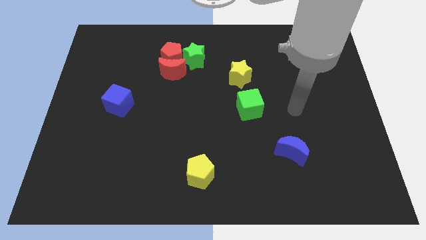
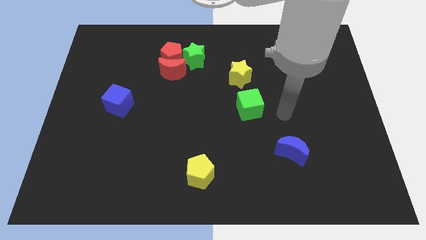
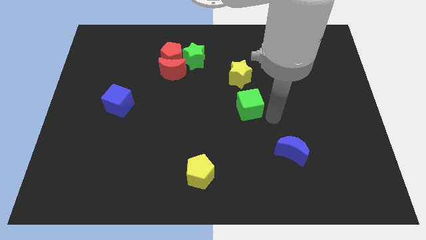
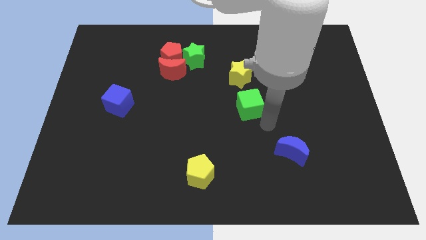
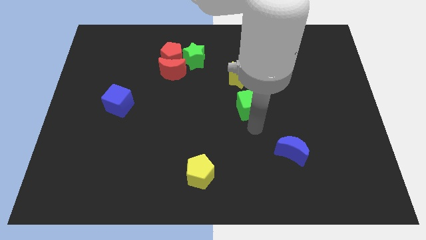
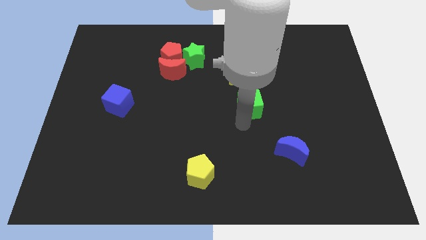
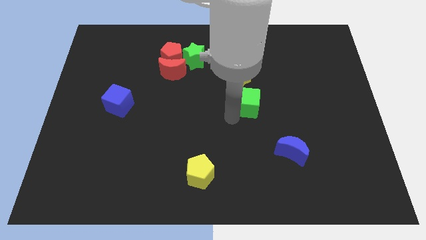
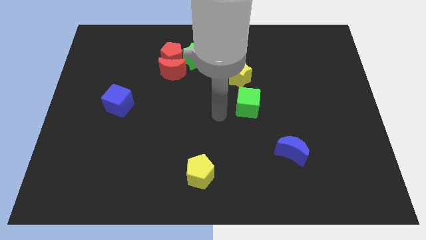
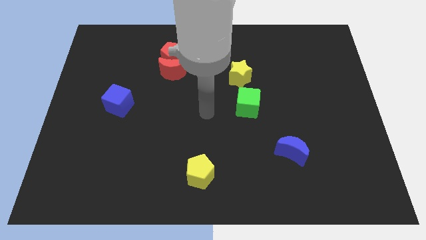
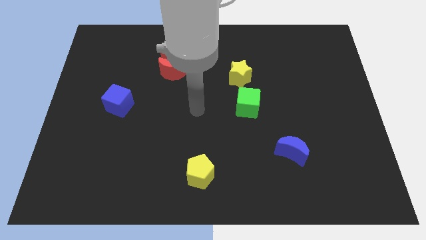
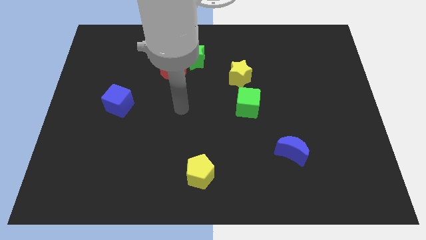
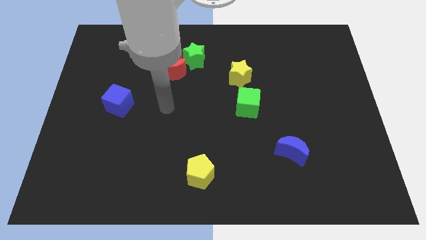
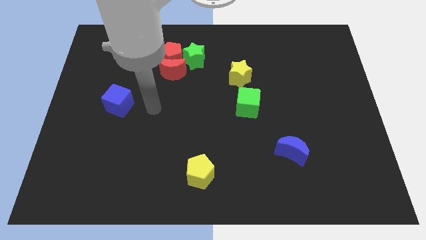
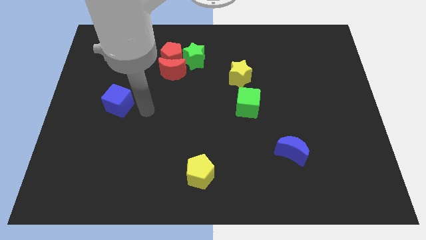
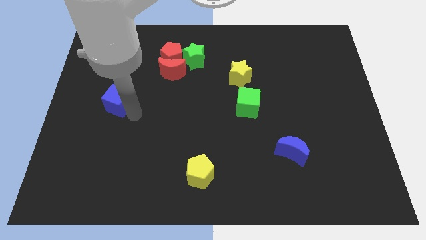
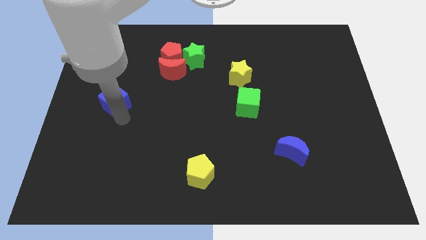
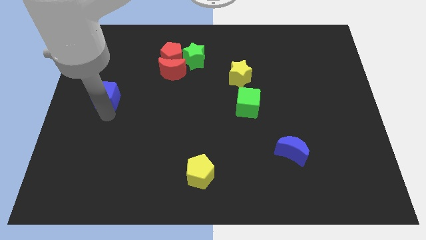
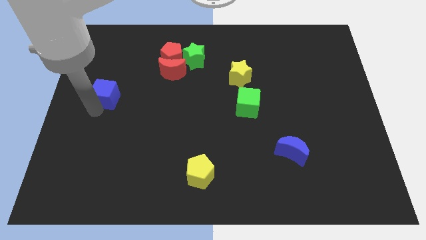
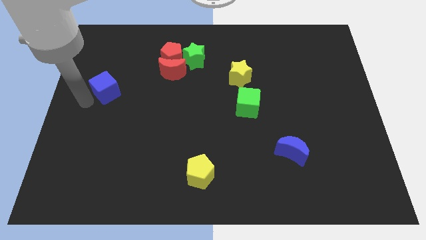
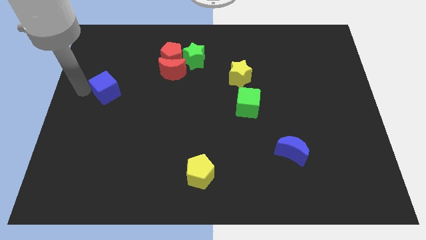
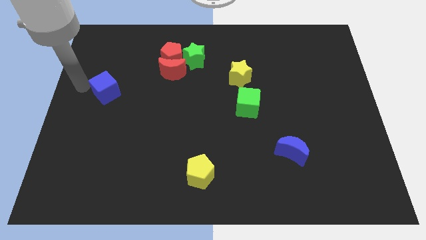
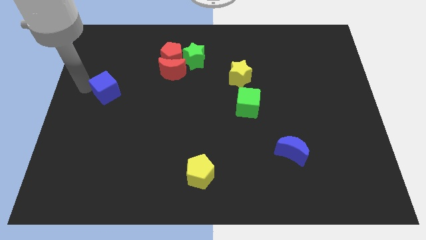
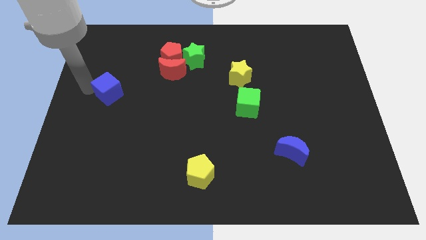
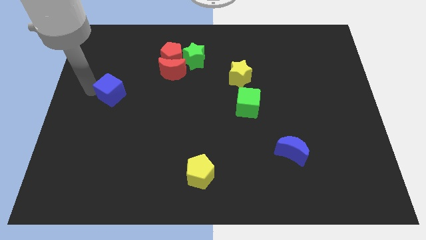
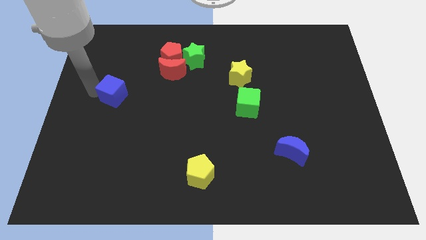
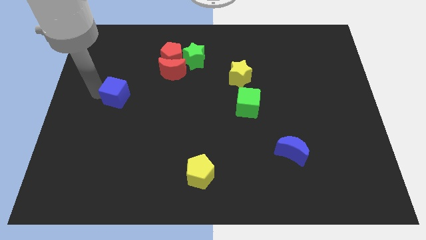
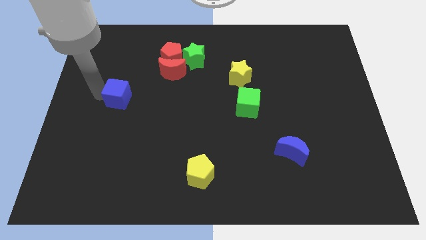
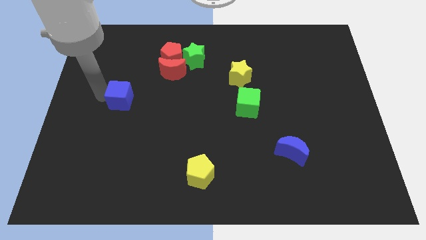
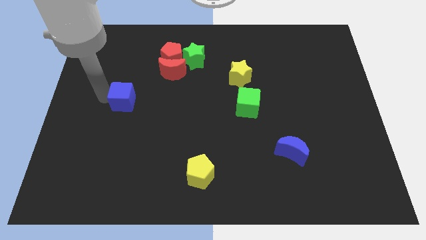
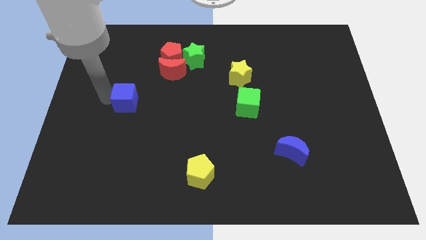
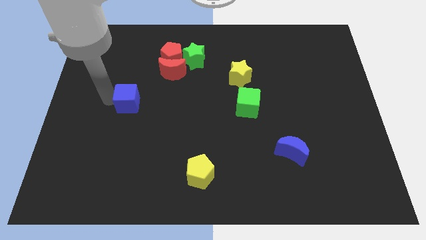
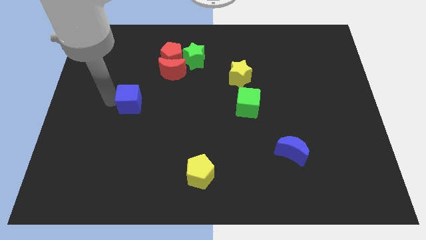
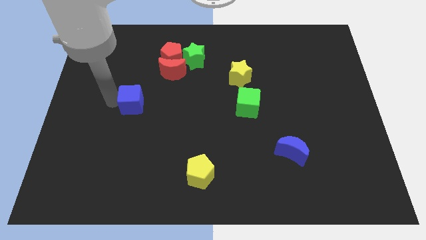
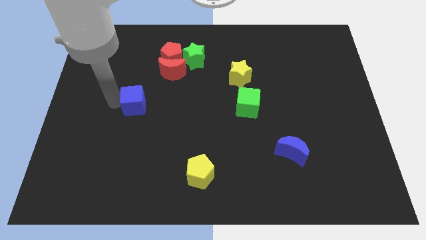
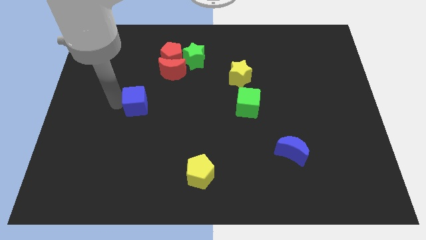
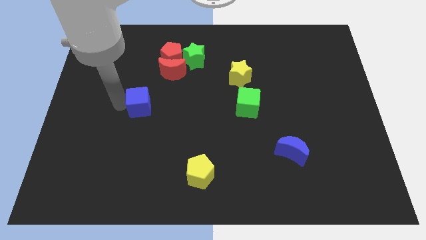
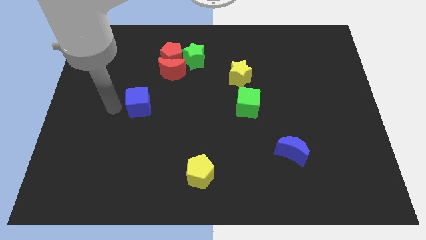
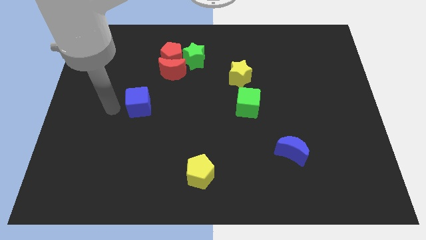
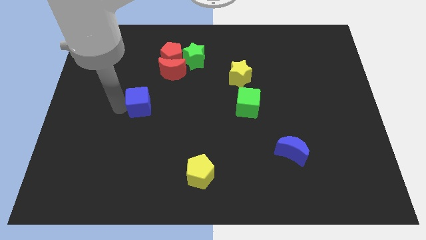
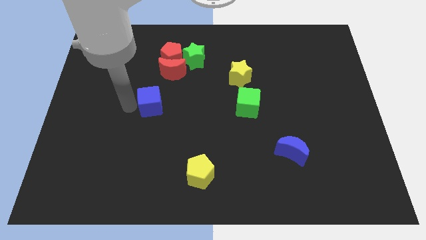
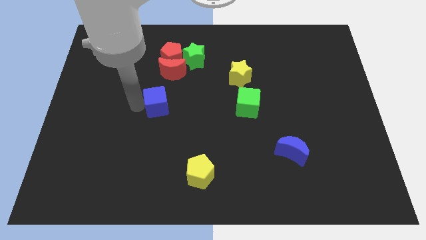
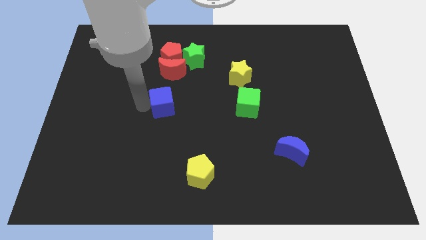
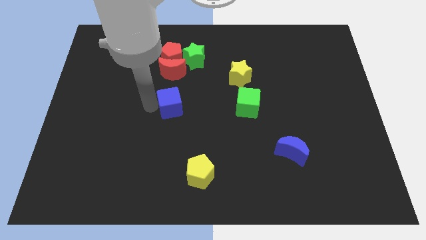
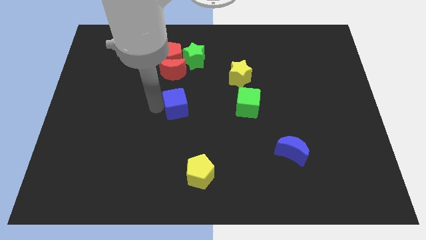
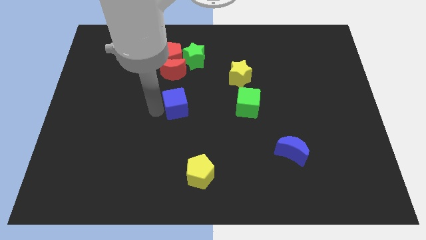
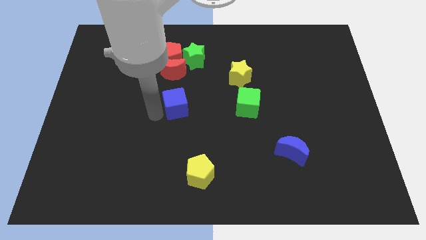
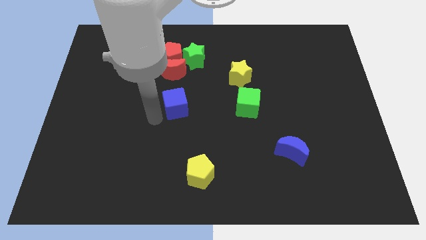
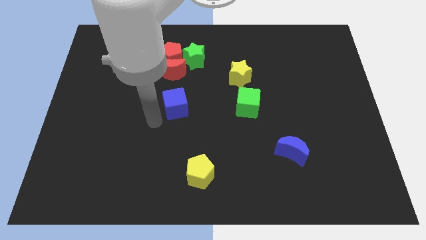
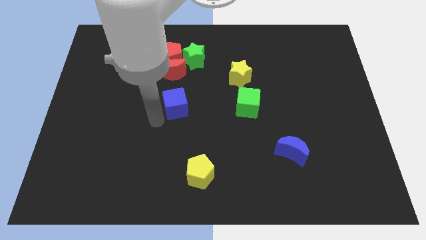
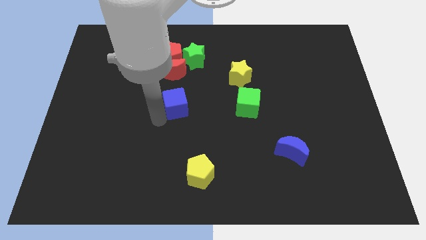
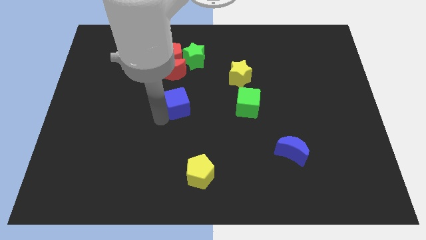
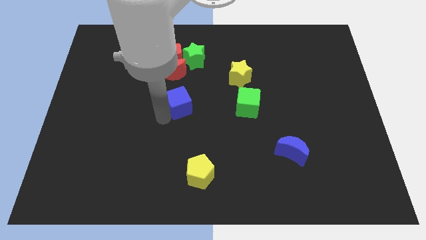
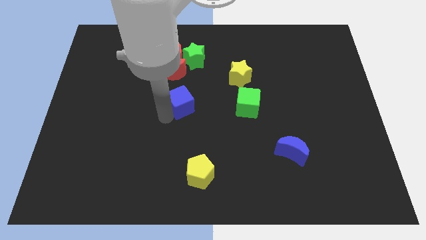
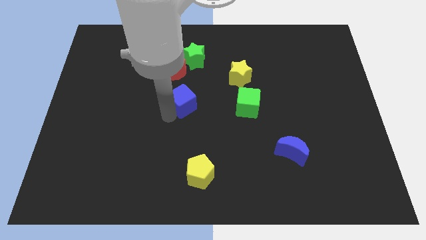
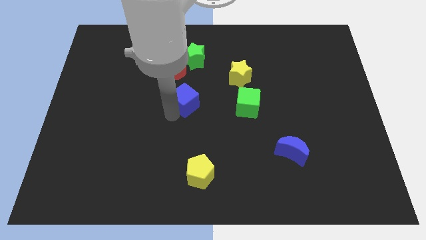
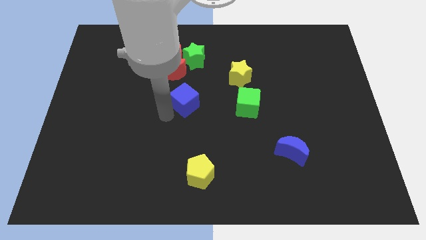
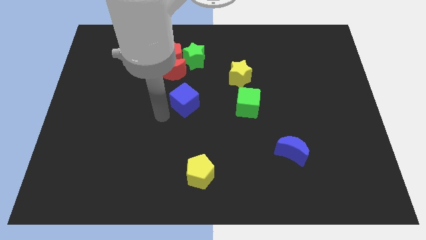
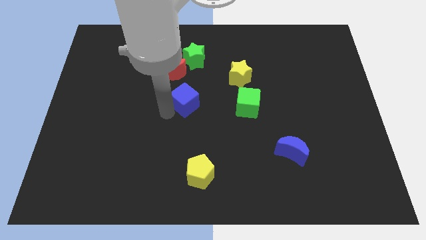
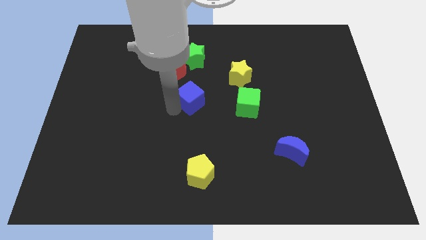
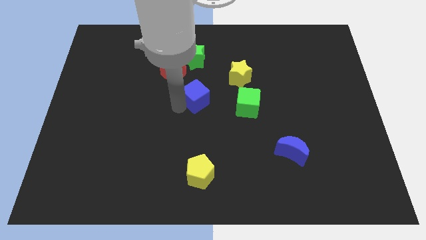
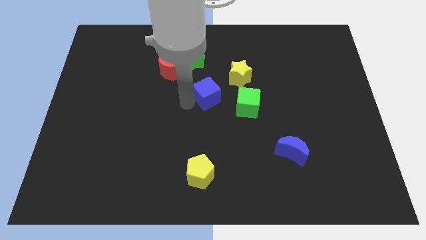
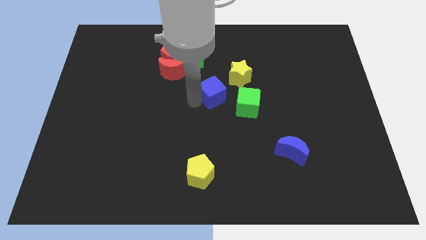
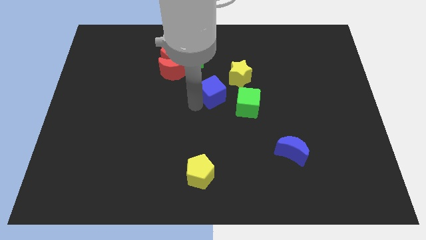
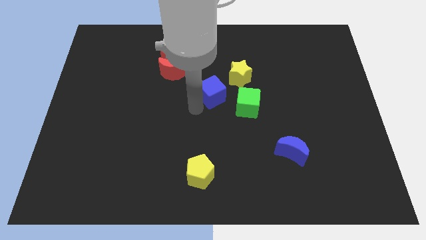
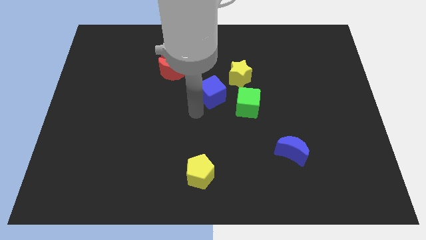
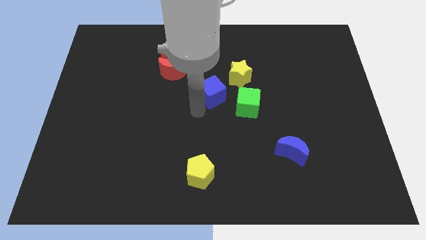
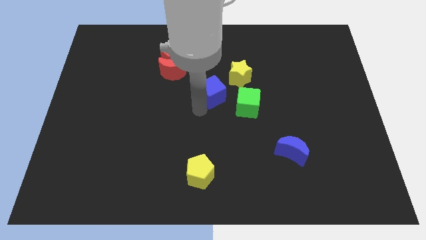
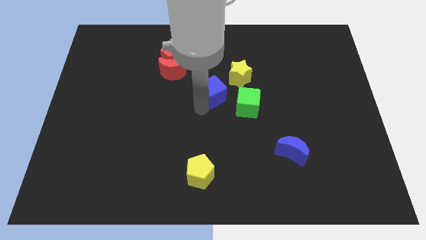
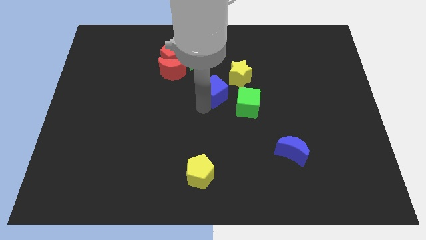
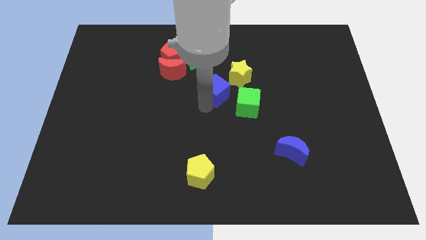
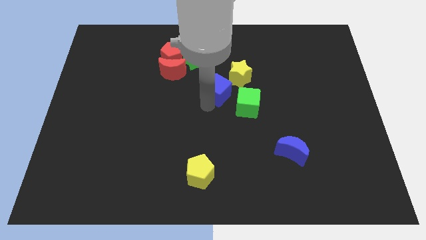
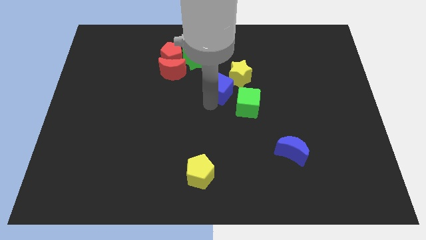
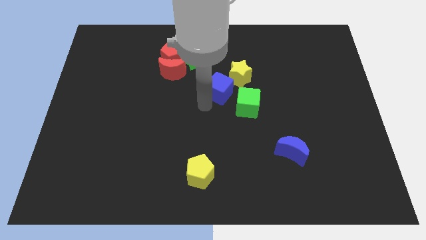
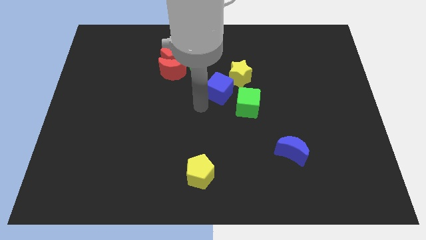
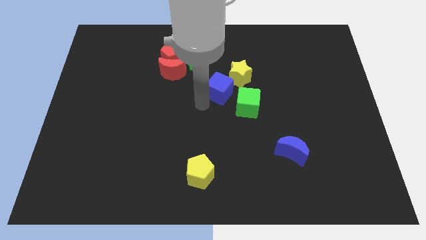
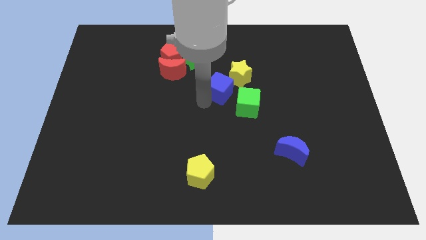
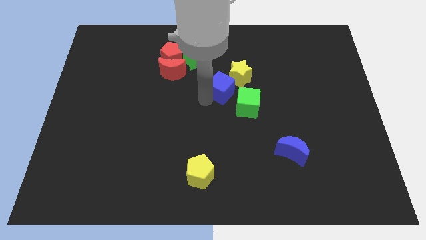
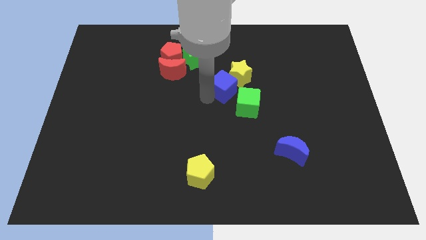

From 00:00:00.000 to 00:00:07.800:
slide the blue cube towards the yellow star
